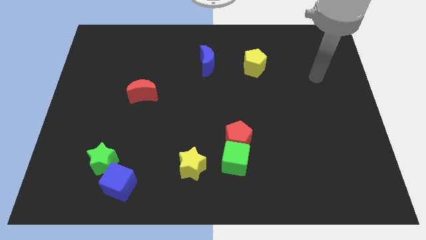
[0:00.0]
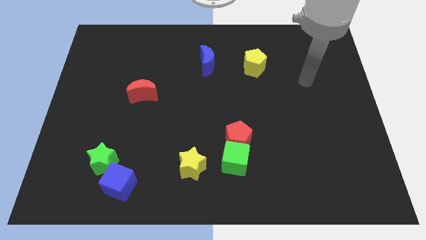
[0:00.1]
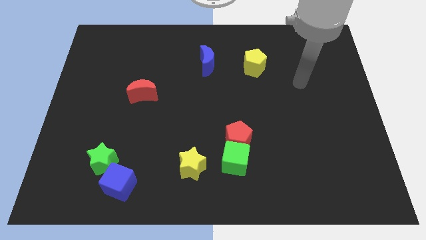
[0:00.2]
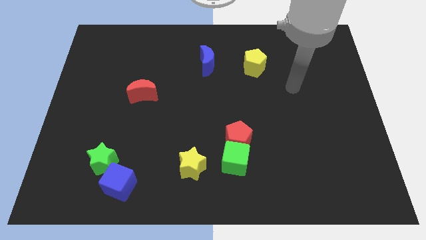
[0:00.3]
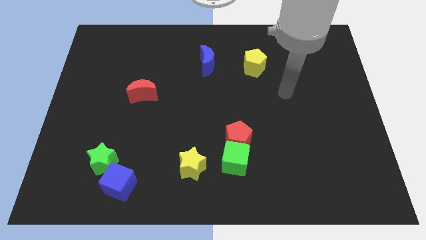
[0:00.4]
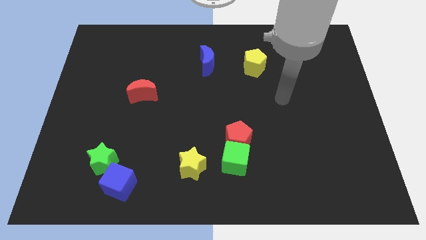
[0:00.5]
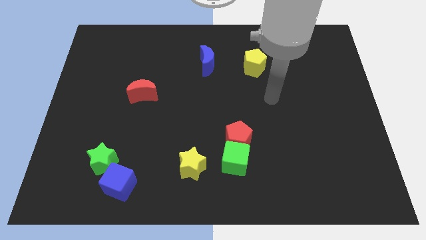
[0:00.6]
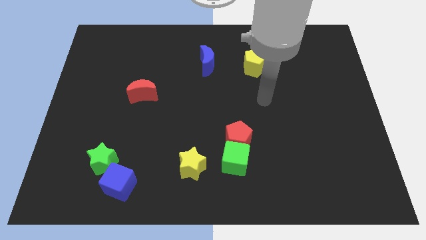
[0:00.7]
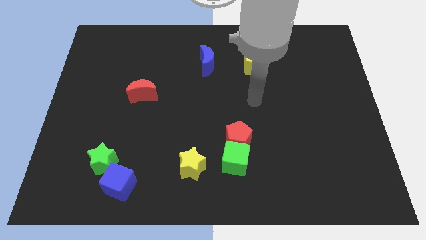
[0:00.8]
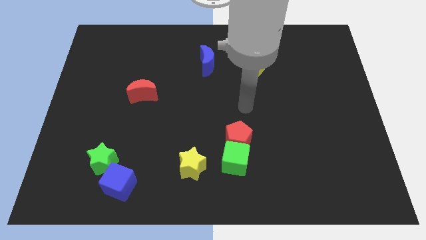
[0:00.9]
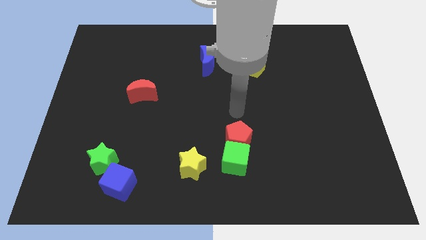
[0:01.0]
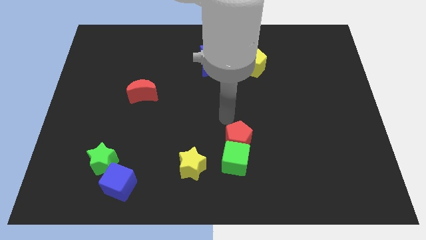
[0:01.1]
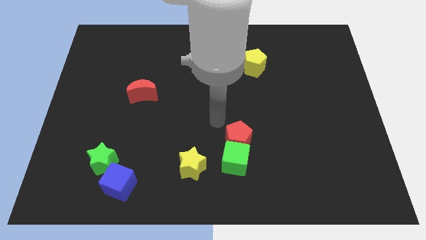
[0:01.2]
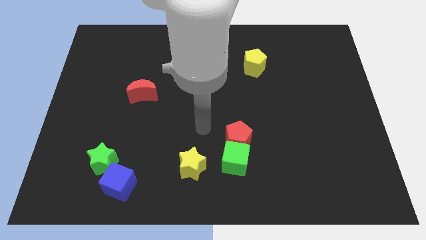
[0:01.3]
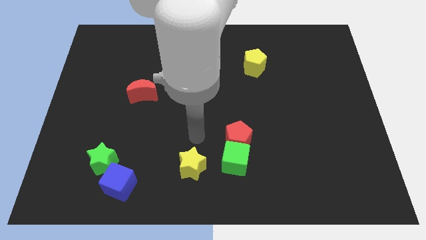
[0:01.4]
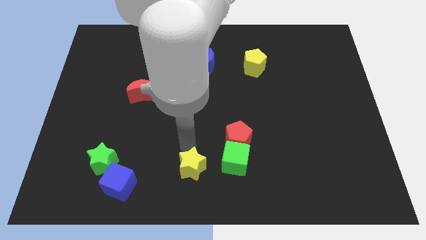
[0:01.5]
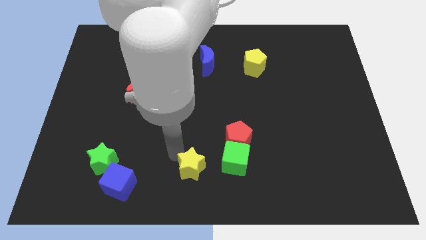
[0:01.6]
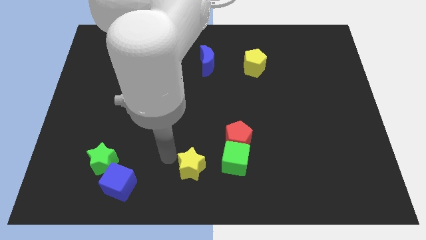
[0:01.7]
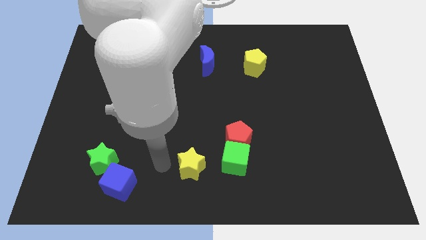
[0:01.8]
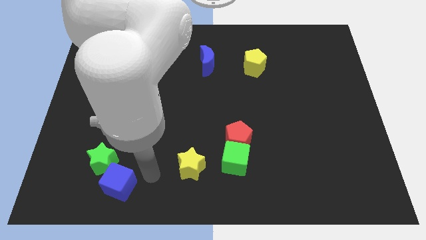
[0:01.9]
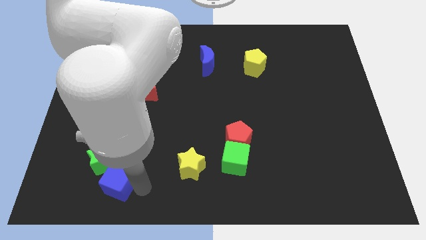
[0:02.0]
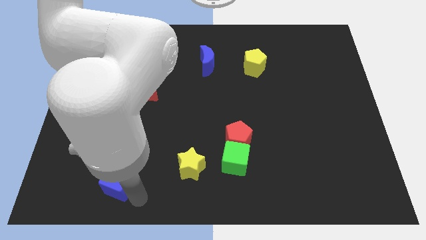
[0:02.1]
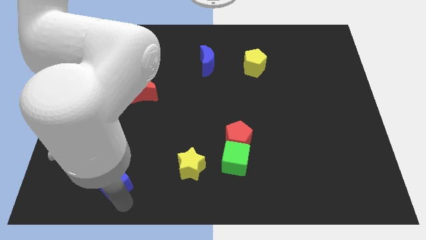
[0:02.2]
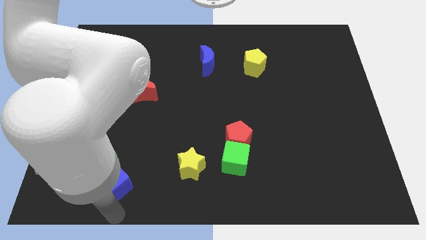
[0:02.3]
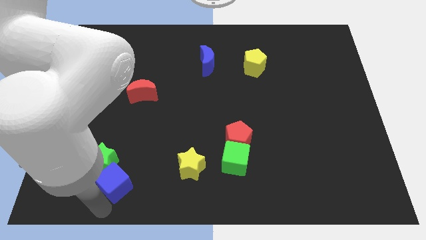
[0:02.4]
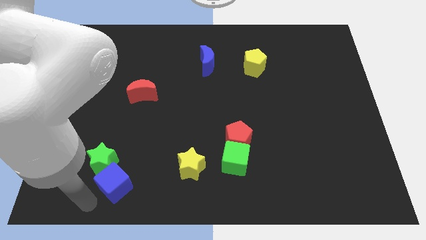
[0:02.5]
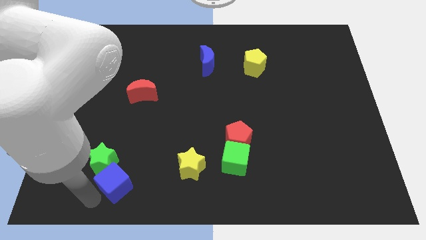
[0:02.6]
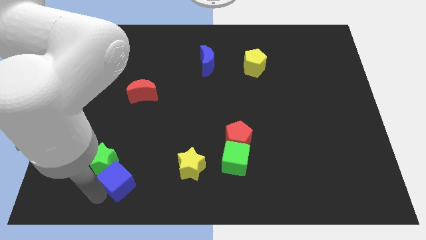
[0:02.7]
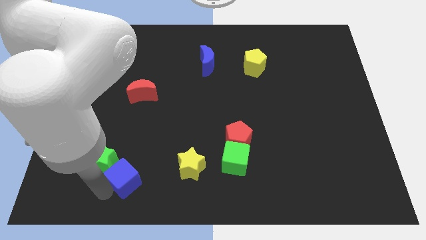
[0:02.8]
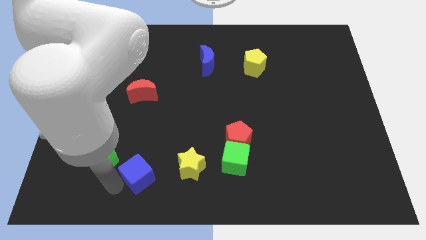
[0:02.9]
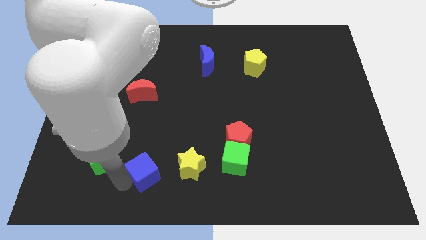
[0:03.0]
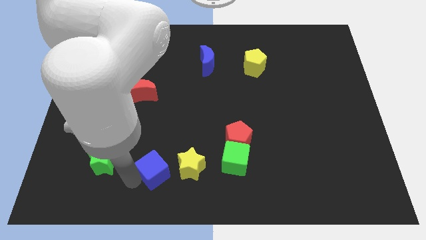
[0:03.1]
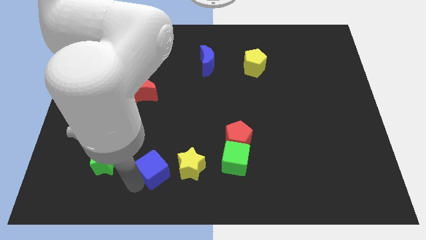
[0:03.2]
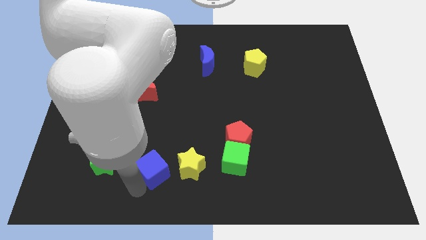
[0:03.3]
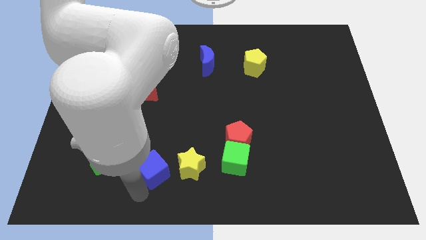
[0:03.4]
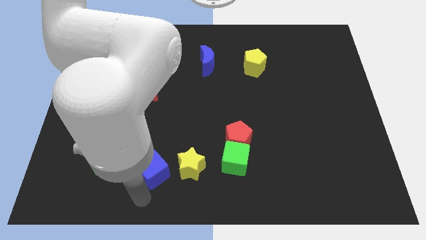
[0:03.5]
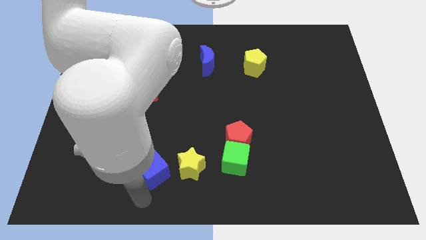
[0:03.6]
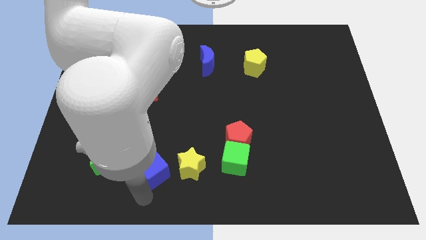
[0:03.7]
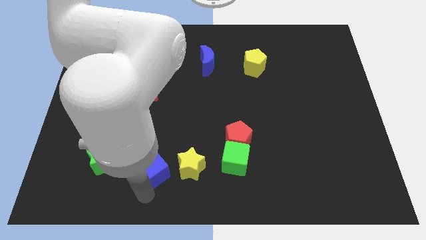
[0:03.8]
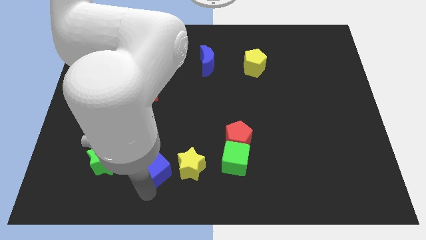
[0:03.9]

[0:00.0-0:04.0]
slightly slide the blue cube diagonally upwards and to the right

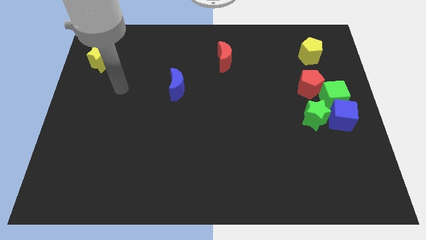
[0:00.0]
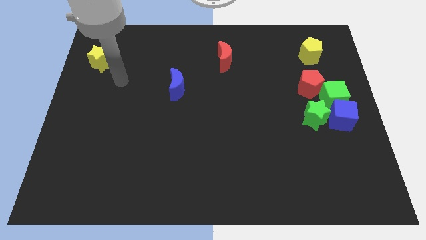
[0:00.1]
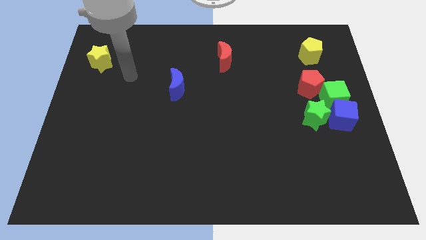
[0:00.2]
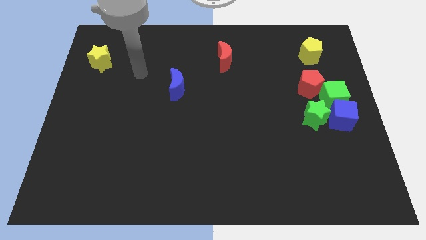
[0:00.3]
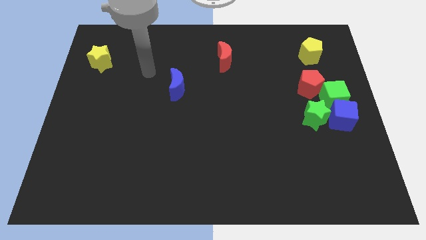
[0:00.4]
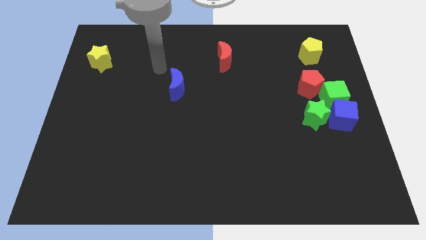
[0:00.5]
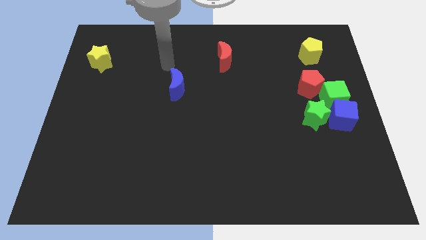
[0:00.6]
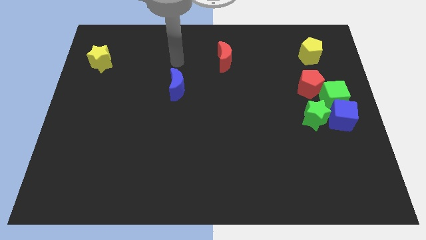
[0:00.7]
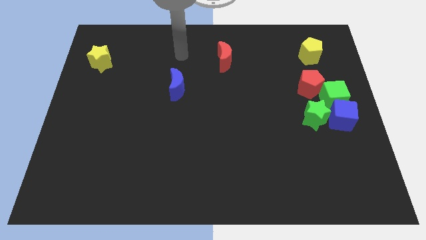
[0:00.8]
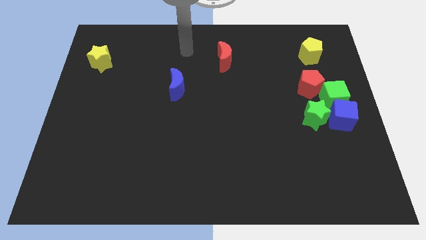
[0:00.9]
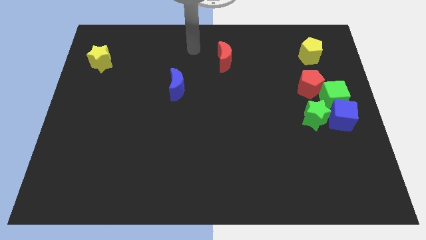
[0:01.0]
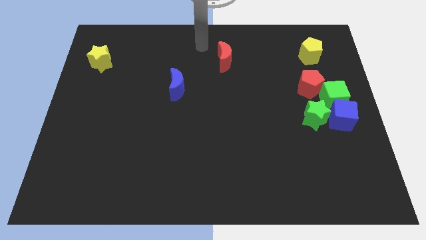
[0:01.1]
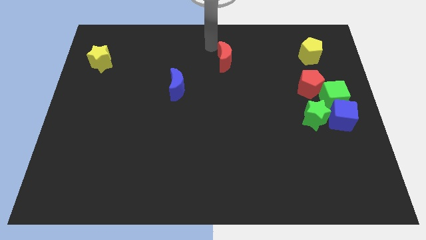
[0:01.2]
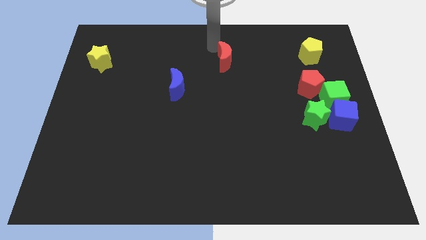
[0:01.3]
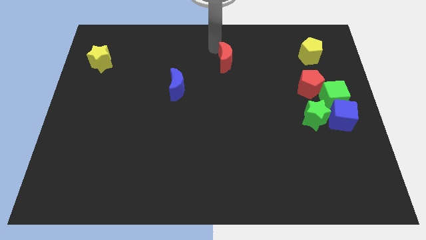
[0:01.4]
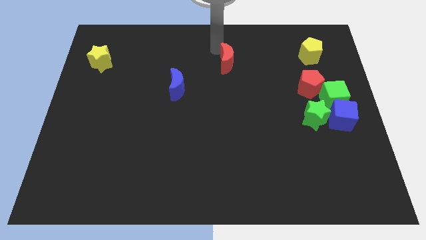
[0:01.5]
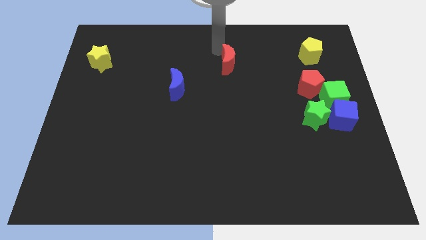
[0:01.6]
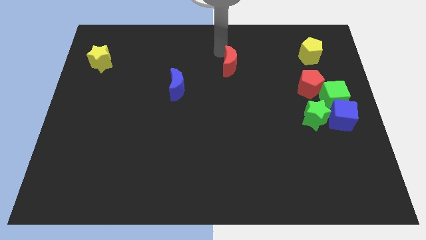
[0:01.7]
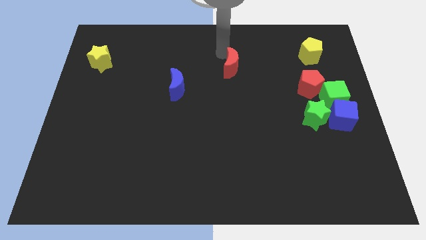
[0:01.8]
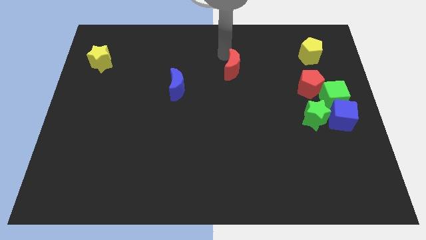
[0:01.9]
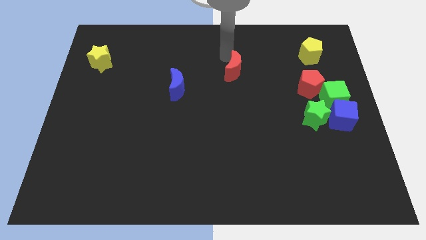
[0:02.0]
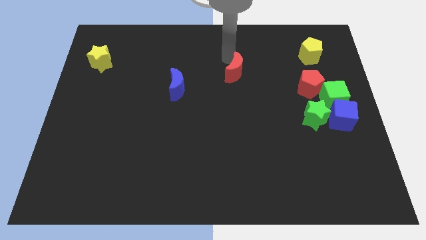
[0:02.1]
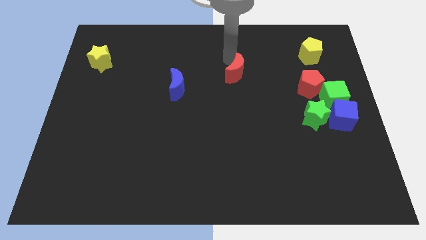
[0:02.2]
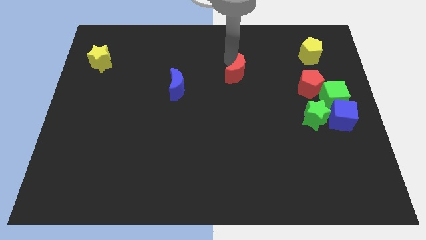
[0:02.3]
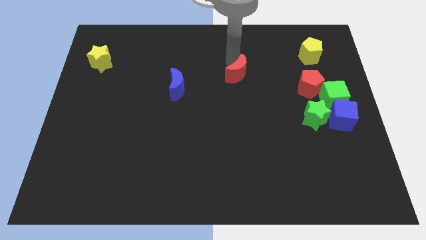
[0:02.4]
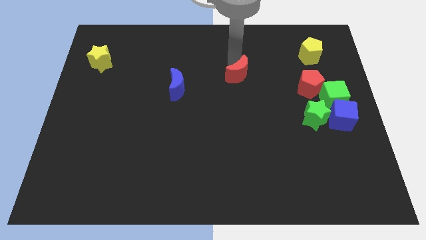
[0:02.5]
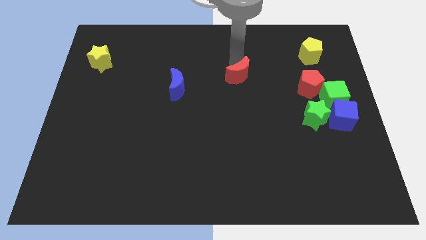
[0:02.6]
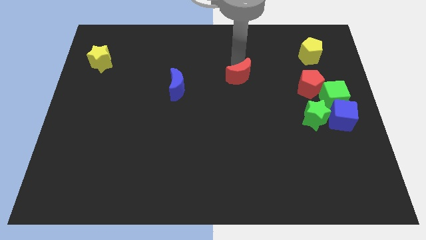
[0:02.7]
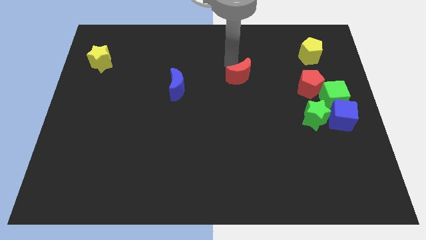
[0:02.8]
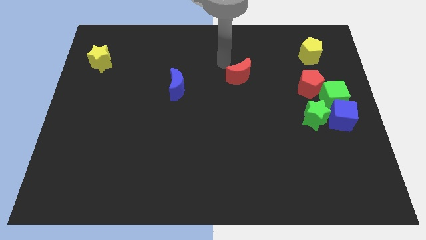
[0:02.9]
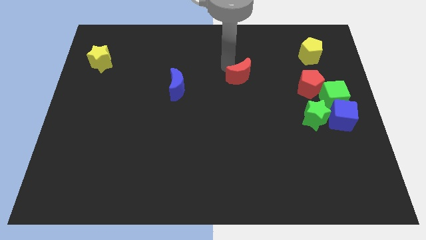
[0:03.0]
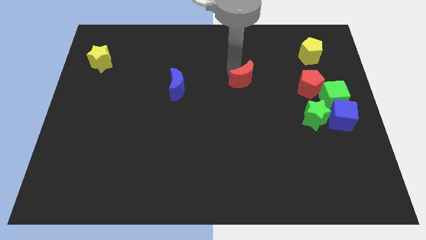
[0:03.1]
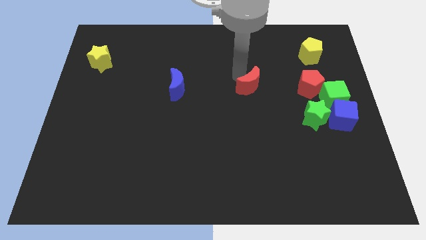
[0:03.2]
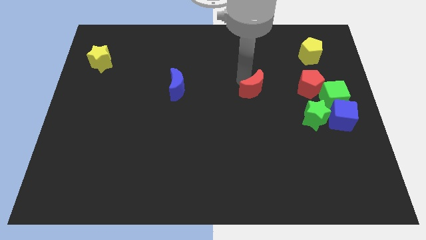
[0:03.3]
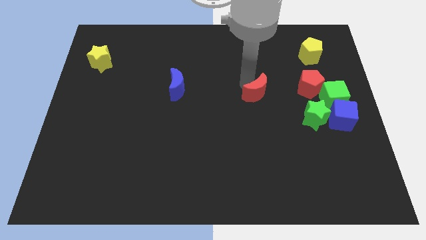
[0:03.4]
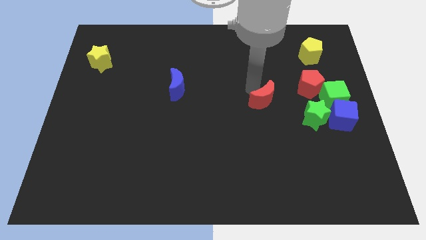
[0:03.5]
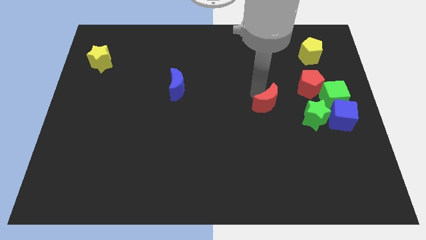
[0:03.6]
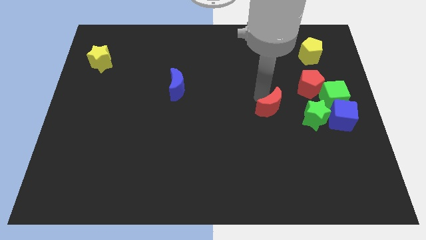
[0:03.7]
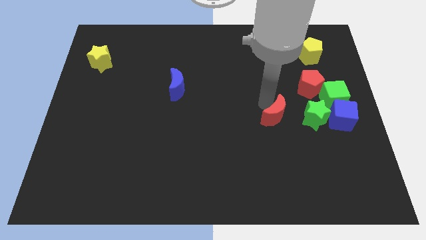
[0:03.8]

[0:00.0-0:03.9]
push the red moon diagonally downwards and right

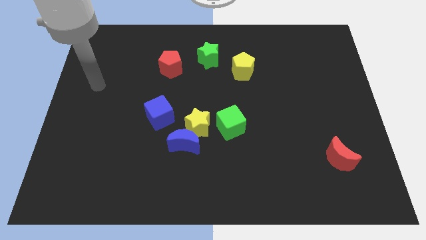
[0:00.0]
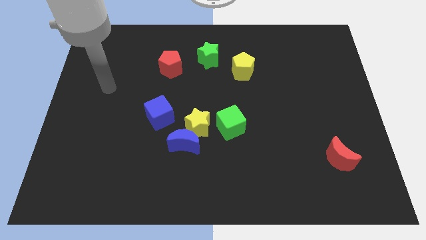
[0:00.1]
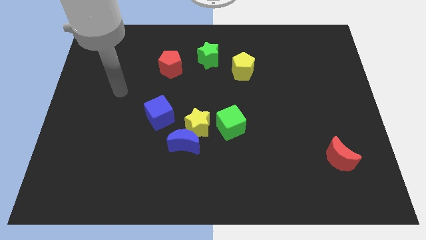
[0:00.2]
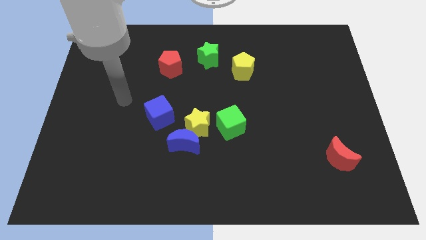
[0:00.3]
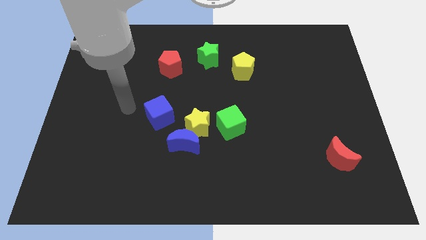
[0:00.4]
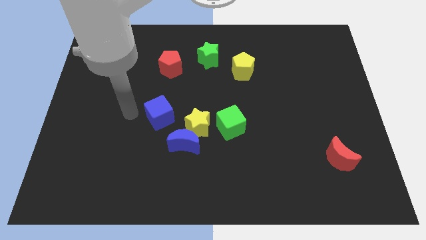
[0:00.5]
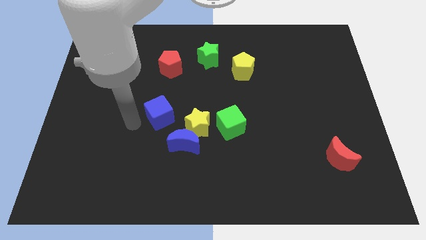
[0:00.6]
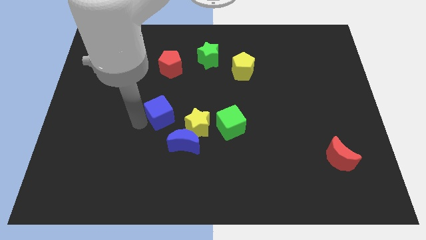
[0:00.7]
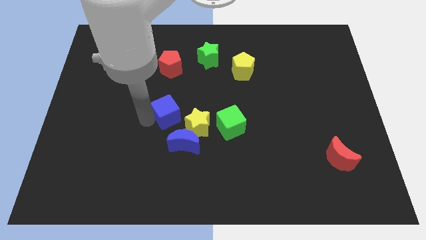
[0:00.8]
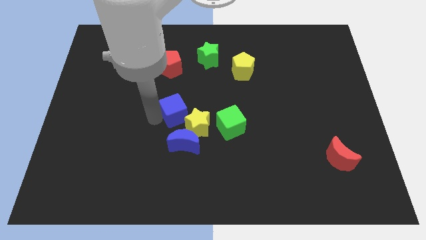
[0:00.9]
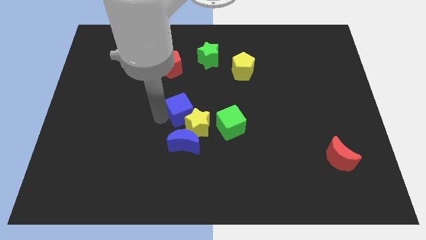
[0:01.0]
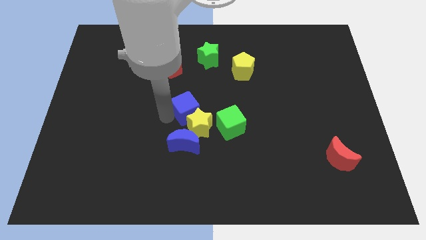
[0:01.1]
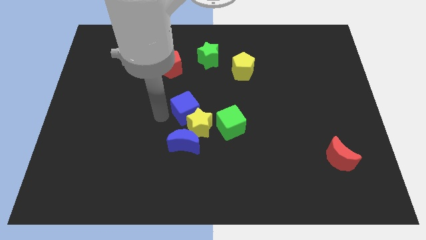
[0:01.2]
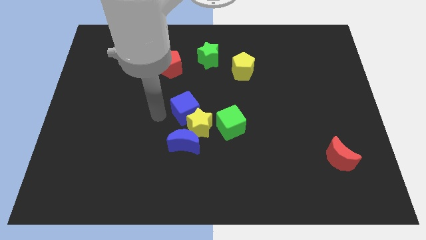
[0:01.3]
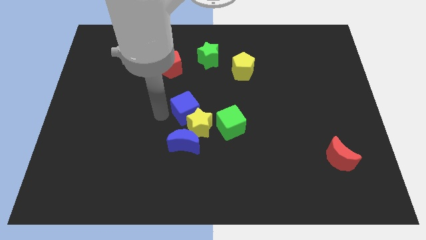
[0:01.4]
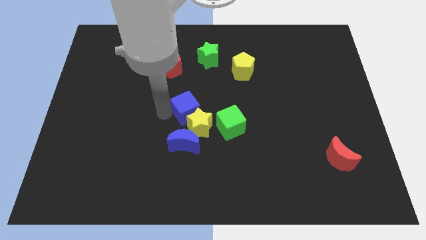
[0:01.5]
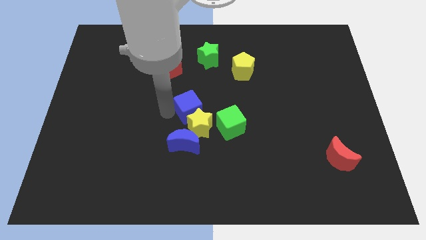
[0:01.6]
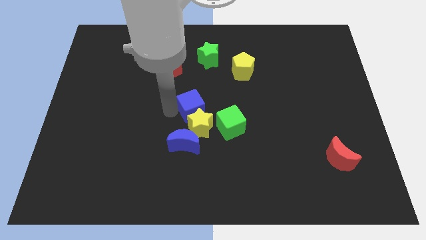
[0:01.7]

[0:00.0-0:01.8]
push the blue cube slightly right
